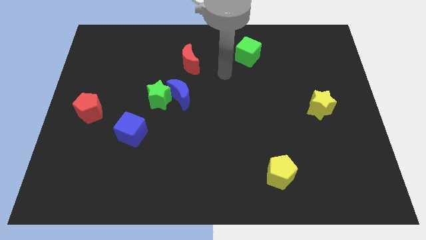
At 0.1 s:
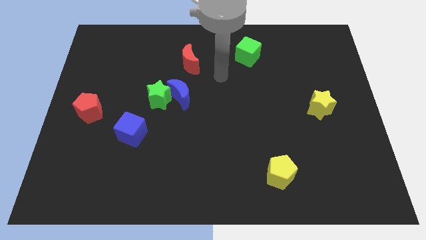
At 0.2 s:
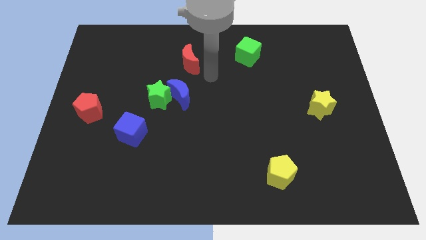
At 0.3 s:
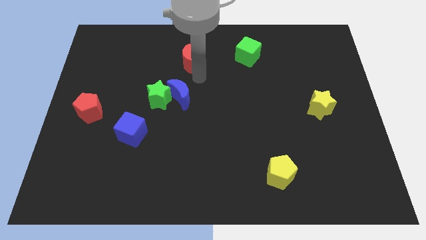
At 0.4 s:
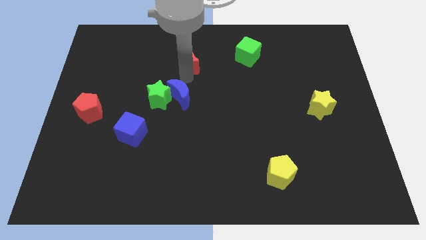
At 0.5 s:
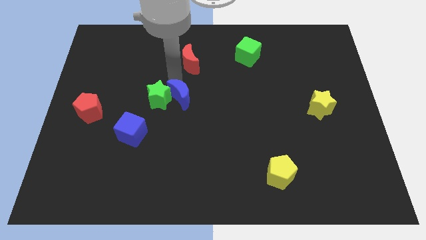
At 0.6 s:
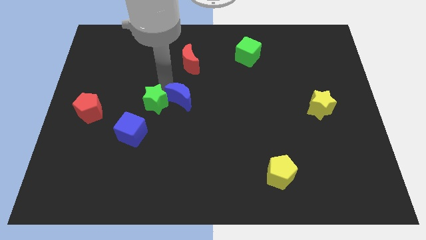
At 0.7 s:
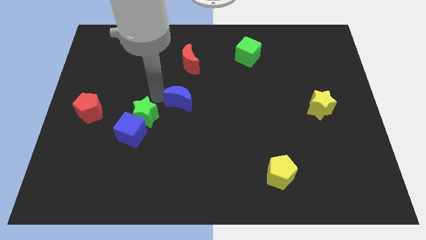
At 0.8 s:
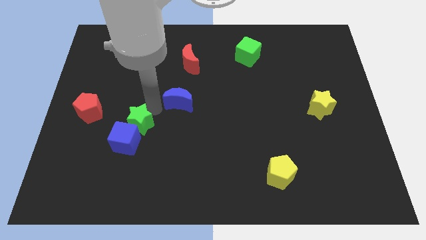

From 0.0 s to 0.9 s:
move the blue moon away from the green star

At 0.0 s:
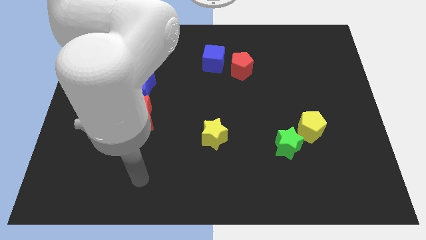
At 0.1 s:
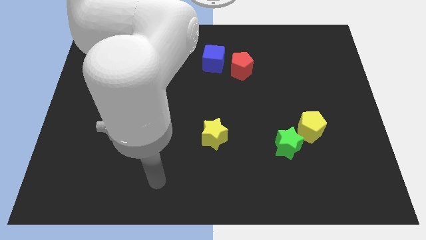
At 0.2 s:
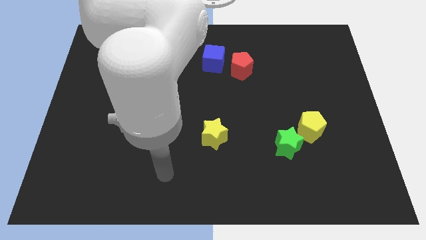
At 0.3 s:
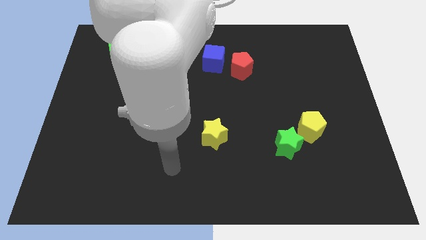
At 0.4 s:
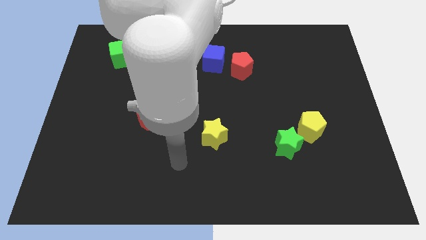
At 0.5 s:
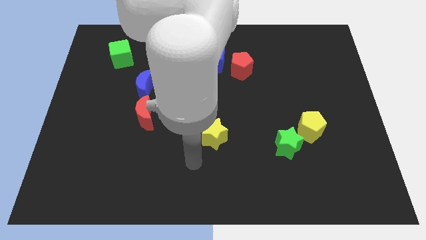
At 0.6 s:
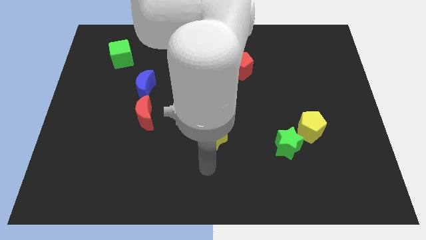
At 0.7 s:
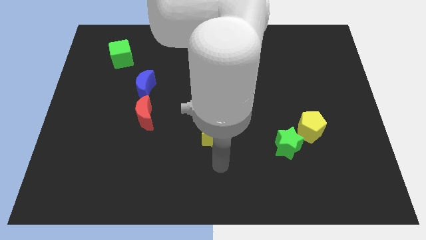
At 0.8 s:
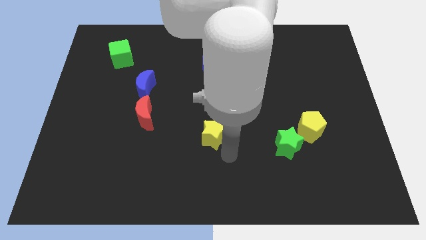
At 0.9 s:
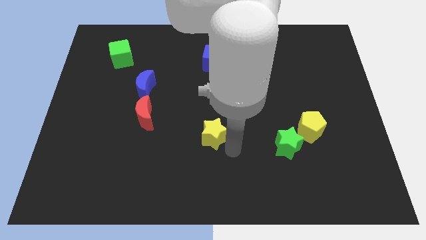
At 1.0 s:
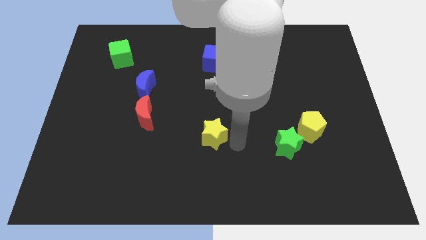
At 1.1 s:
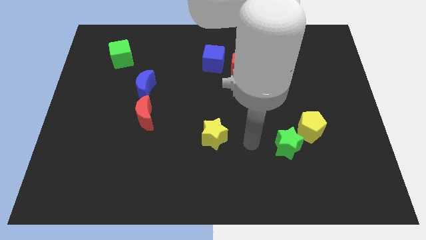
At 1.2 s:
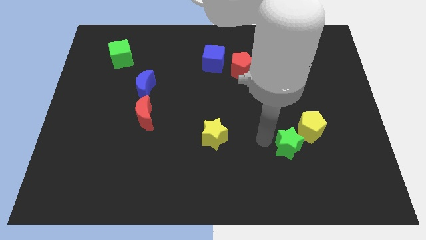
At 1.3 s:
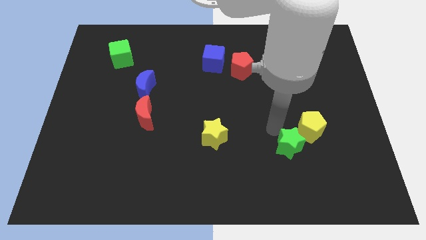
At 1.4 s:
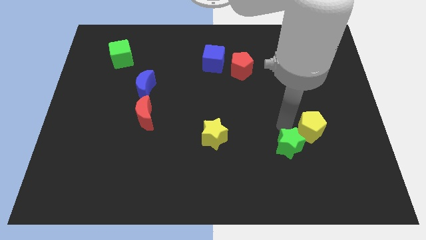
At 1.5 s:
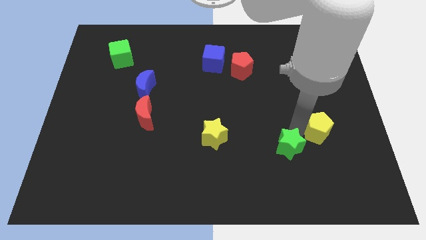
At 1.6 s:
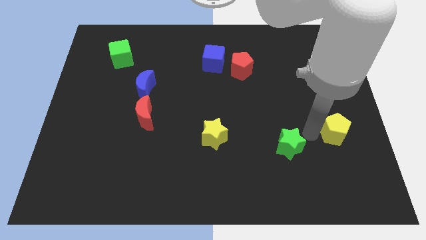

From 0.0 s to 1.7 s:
pull the green star apart from the yellow pentagon

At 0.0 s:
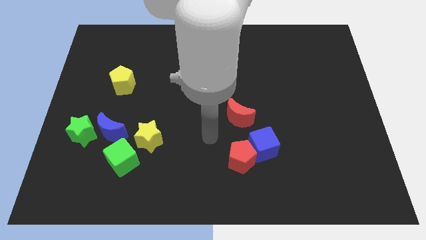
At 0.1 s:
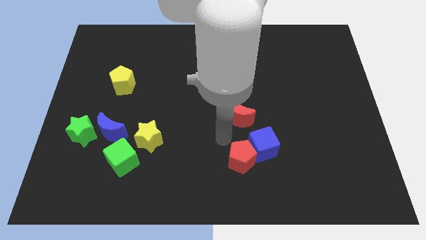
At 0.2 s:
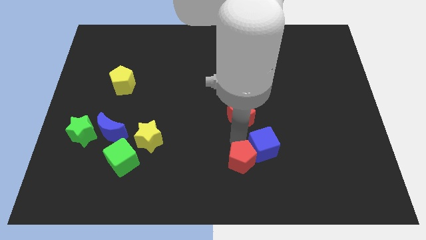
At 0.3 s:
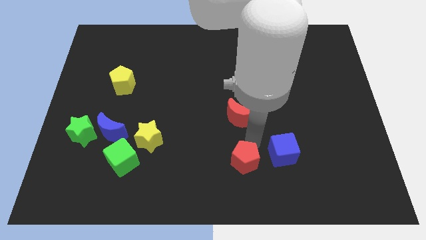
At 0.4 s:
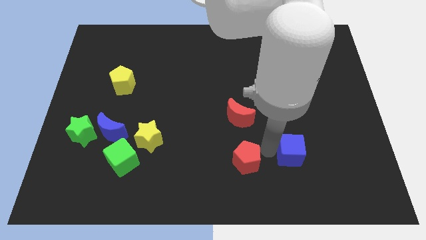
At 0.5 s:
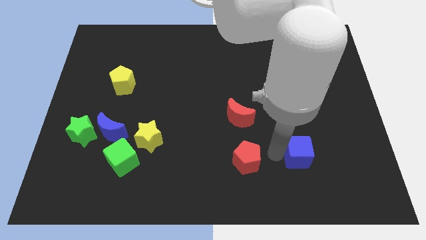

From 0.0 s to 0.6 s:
move the red pentagon away from the blue cube

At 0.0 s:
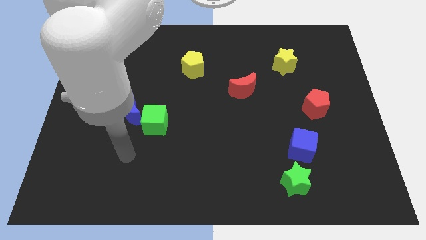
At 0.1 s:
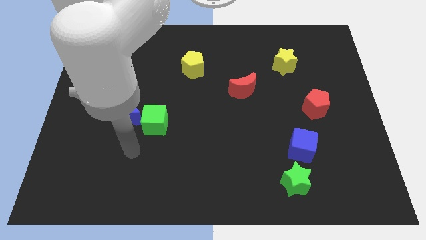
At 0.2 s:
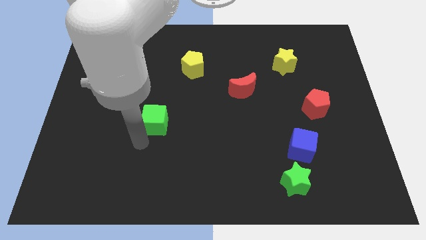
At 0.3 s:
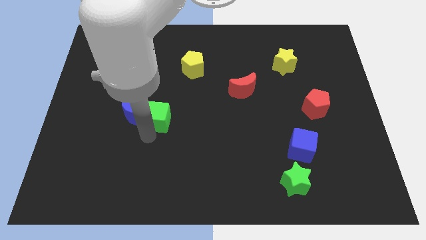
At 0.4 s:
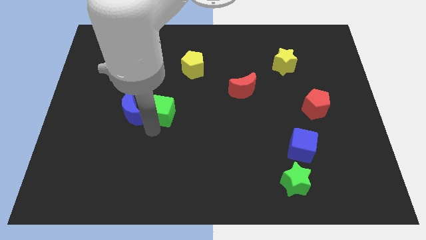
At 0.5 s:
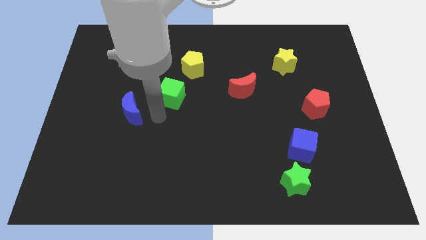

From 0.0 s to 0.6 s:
separate the blue moon from the green cube

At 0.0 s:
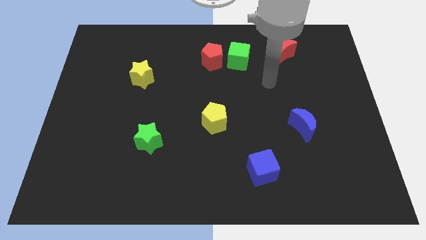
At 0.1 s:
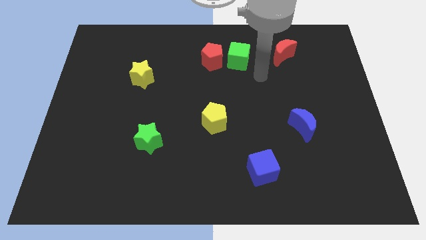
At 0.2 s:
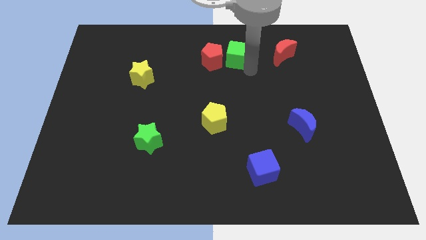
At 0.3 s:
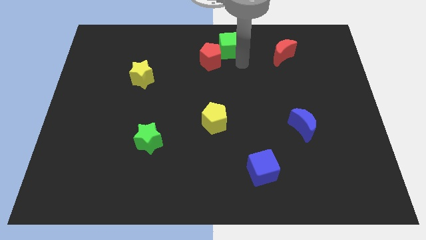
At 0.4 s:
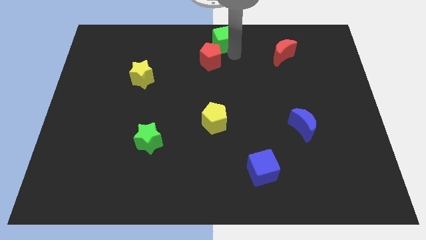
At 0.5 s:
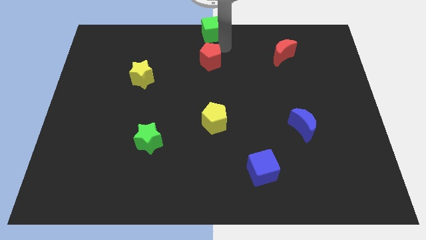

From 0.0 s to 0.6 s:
pull the red pentagon apart from the green cube

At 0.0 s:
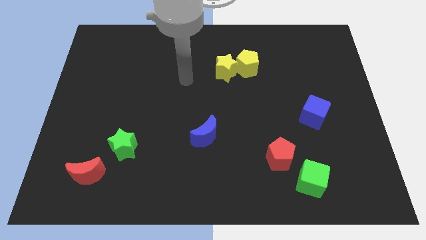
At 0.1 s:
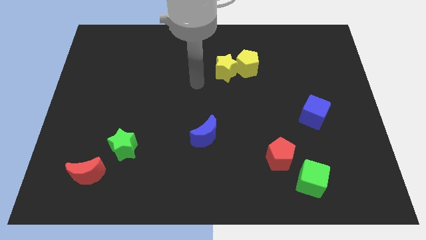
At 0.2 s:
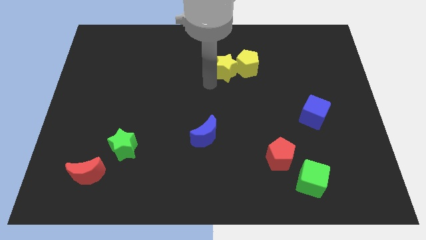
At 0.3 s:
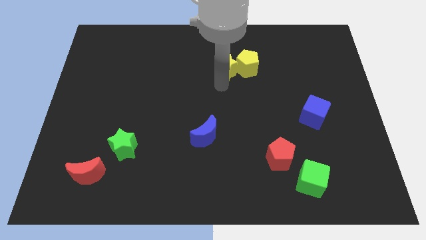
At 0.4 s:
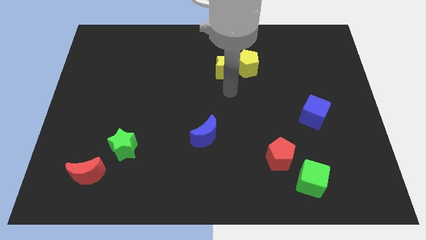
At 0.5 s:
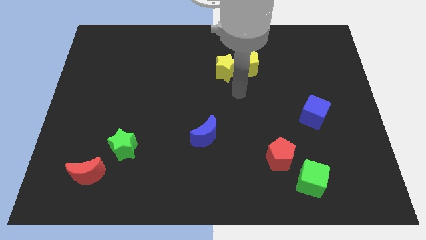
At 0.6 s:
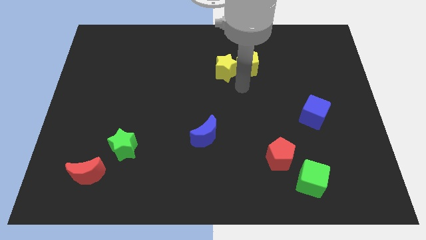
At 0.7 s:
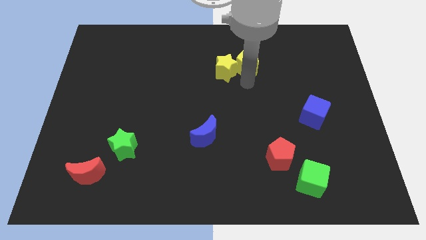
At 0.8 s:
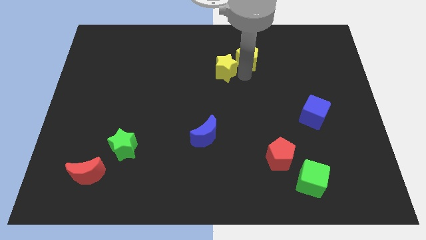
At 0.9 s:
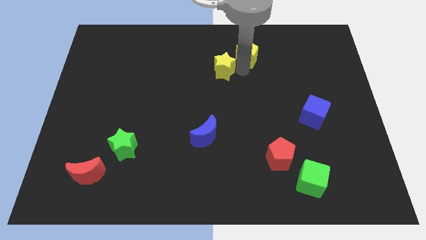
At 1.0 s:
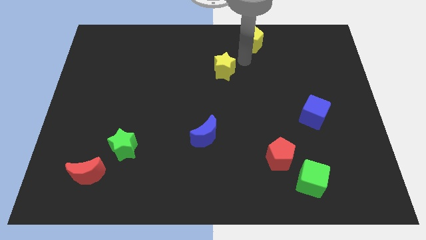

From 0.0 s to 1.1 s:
pull the yellow star apart from the yellow pentagon

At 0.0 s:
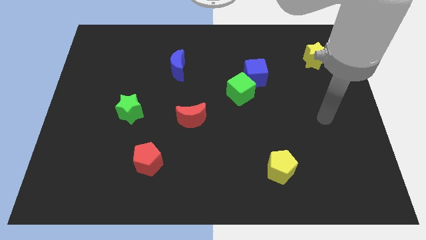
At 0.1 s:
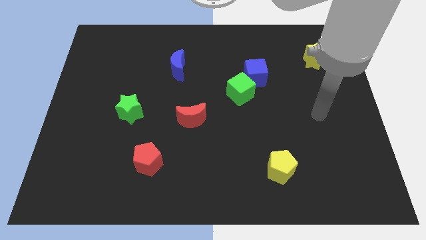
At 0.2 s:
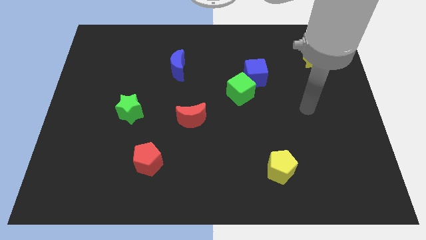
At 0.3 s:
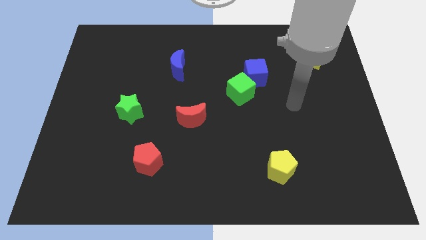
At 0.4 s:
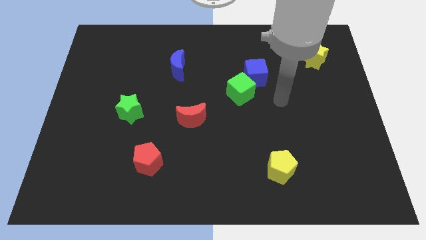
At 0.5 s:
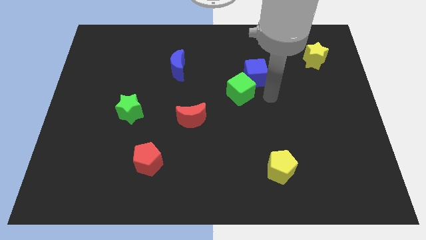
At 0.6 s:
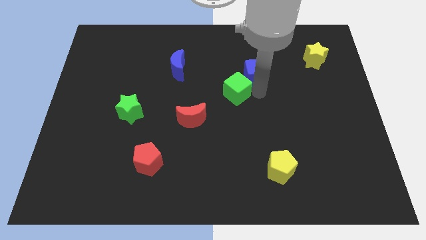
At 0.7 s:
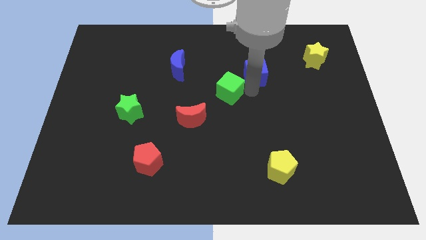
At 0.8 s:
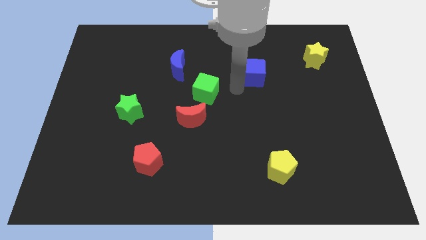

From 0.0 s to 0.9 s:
move the blue cube away from the green cube

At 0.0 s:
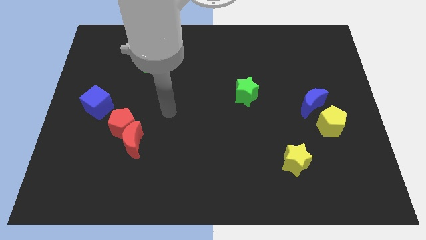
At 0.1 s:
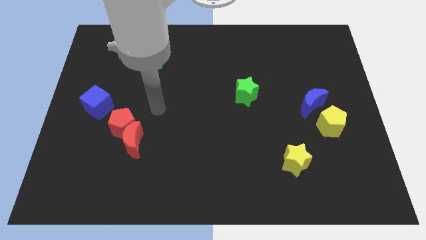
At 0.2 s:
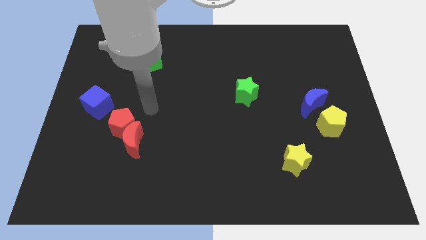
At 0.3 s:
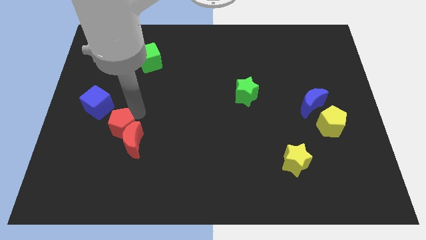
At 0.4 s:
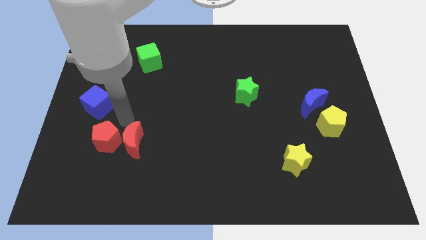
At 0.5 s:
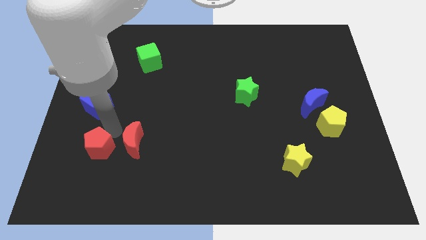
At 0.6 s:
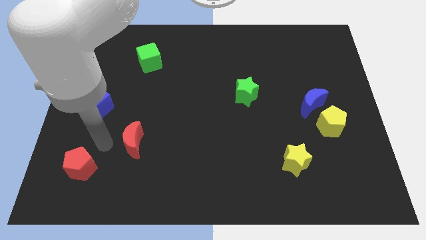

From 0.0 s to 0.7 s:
pull the red moon apart from the red pentagon

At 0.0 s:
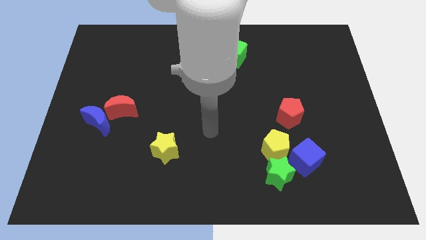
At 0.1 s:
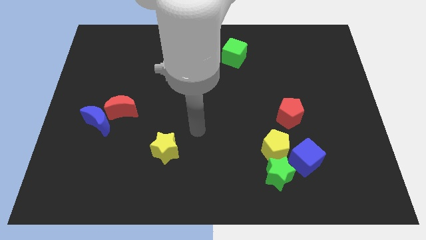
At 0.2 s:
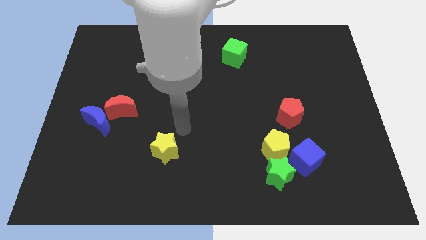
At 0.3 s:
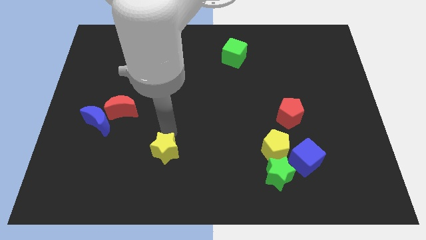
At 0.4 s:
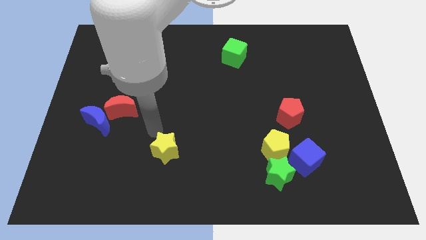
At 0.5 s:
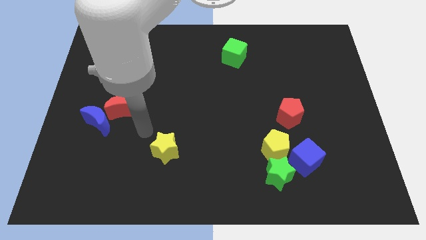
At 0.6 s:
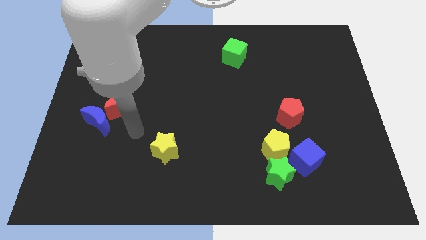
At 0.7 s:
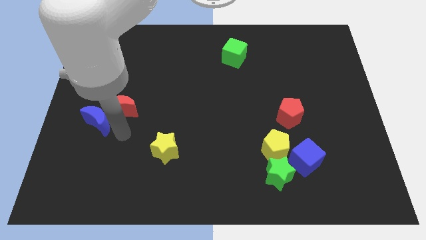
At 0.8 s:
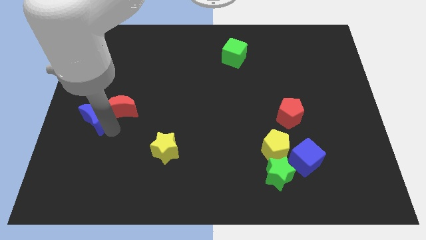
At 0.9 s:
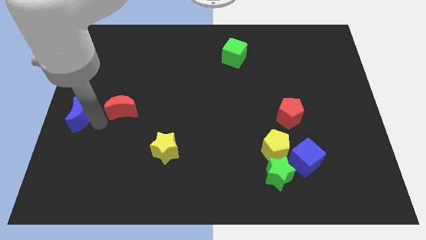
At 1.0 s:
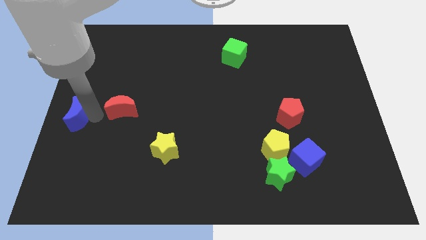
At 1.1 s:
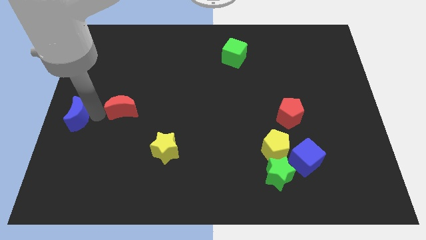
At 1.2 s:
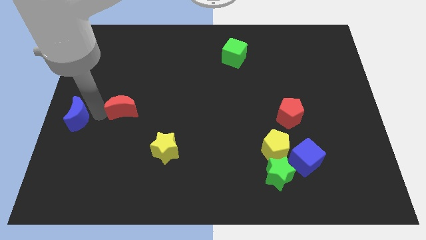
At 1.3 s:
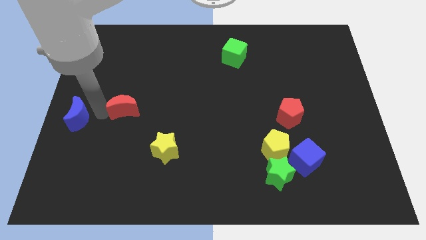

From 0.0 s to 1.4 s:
separate the red moon from the blue moon

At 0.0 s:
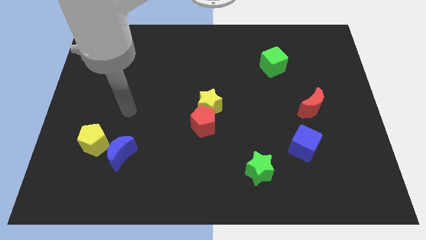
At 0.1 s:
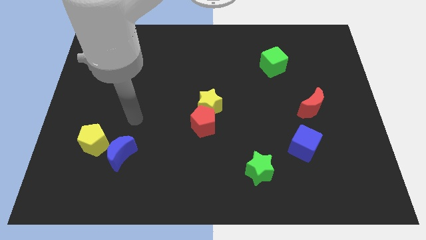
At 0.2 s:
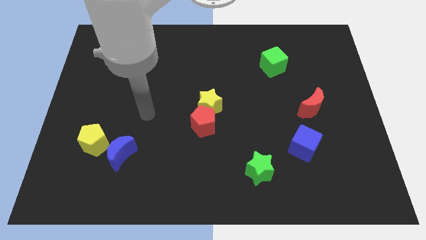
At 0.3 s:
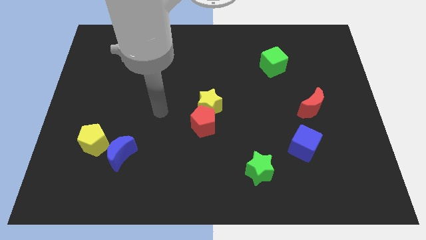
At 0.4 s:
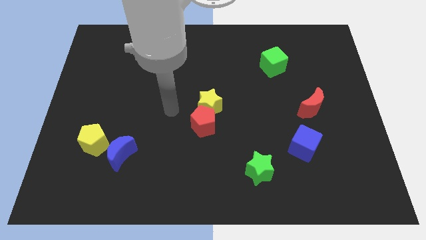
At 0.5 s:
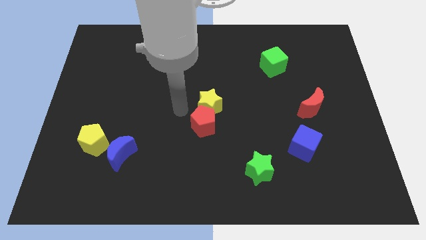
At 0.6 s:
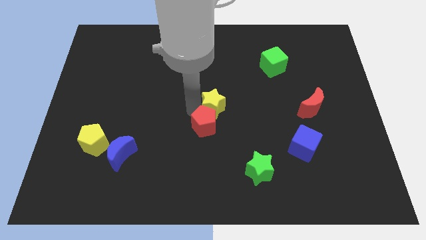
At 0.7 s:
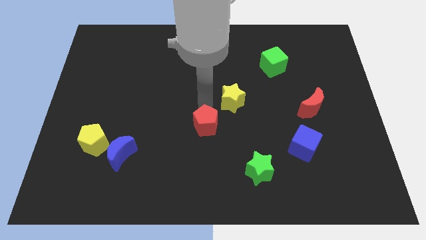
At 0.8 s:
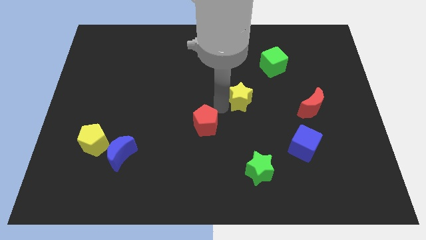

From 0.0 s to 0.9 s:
separate the red pentagon from the yellow star
